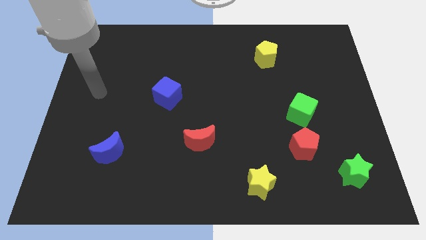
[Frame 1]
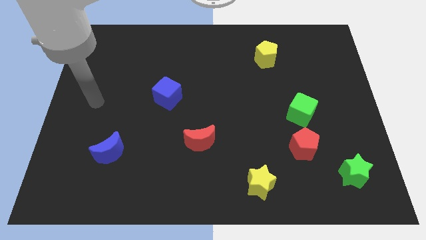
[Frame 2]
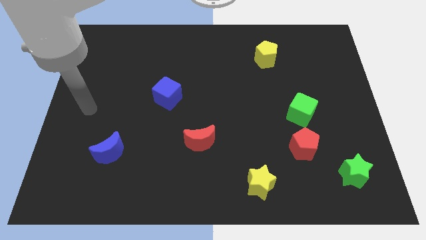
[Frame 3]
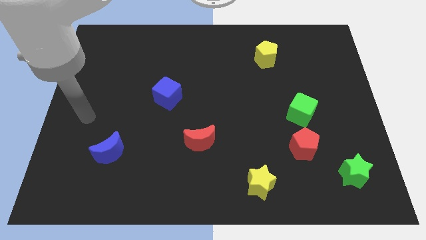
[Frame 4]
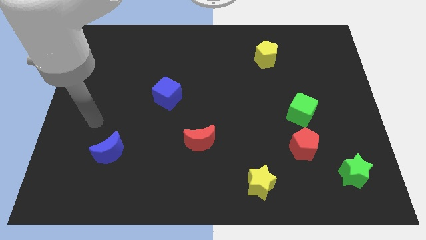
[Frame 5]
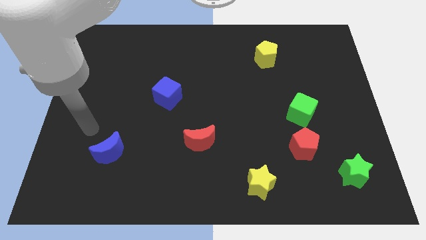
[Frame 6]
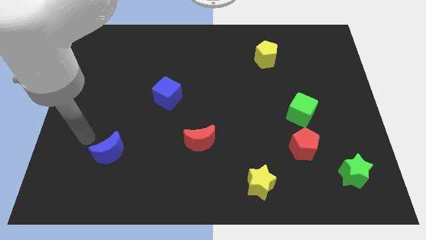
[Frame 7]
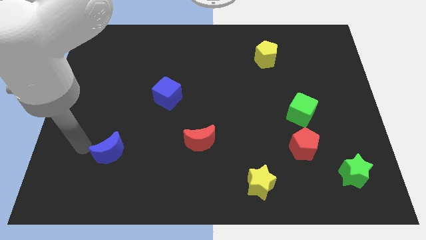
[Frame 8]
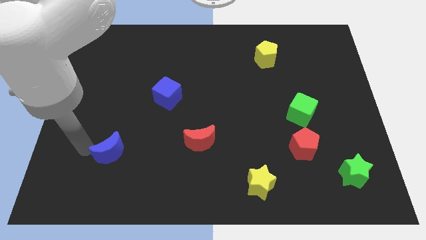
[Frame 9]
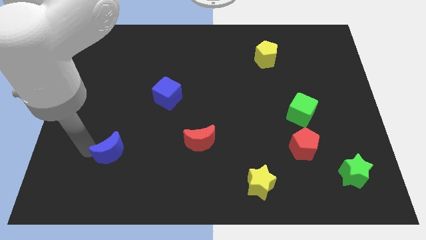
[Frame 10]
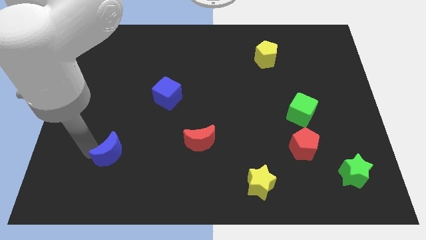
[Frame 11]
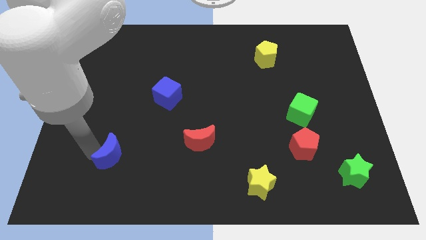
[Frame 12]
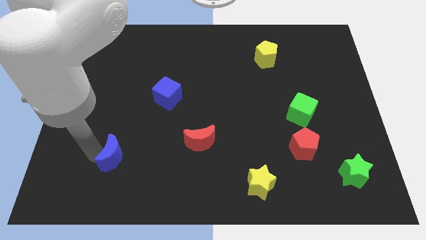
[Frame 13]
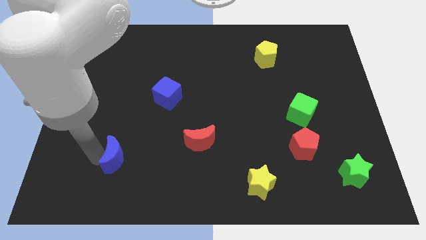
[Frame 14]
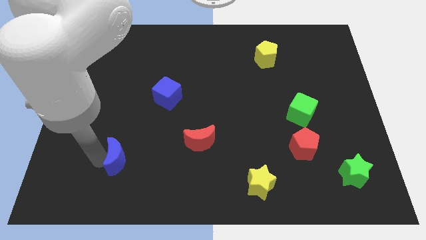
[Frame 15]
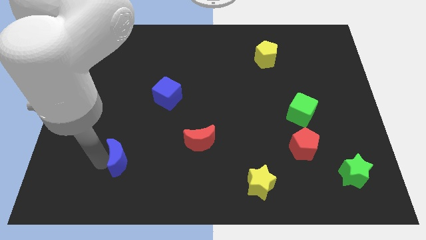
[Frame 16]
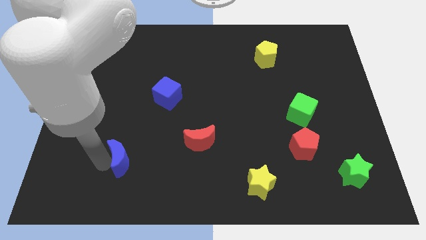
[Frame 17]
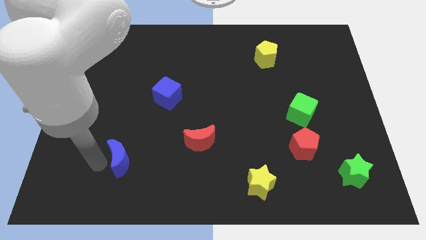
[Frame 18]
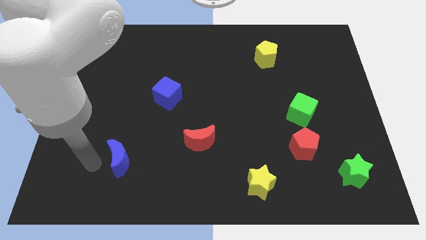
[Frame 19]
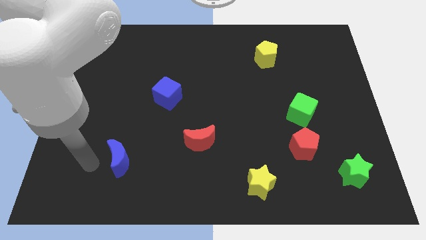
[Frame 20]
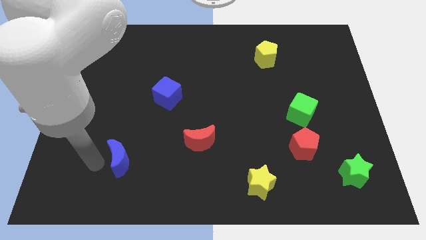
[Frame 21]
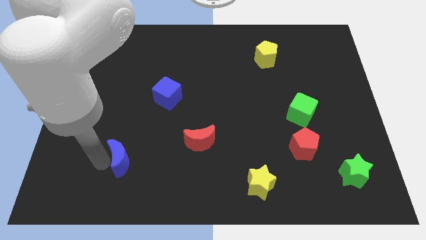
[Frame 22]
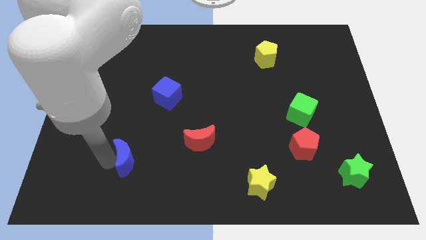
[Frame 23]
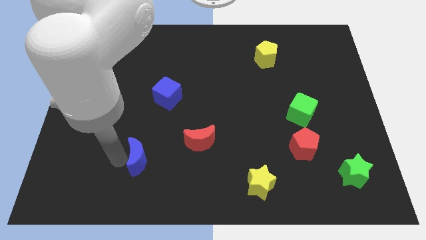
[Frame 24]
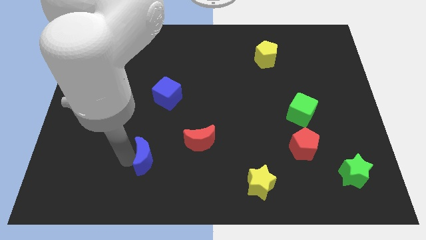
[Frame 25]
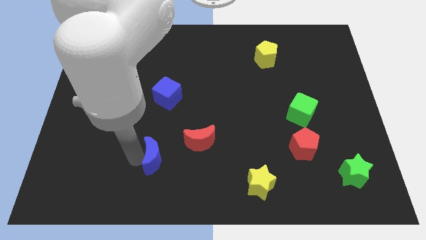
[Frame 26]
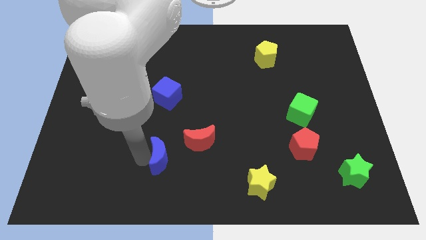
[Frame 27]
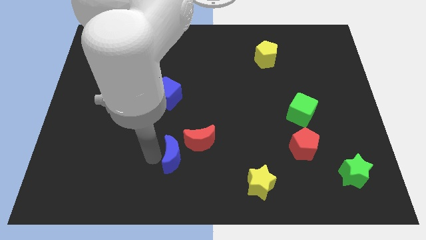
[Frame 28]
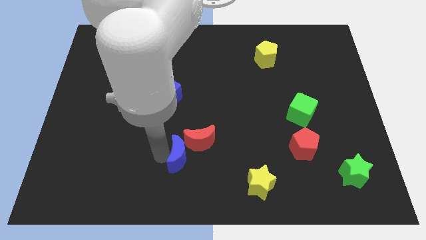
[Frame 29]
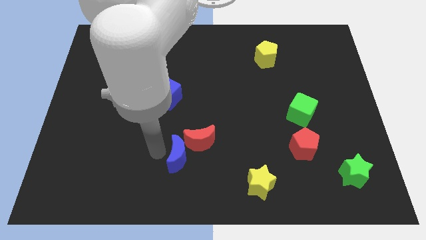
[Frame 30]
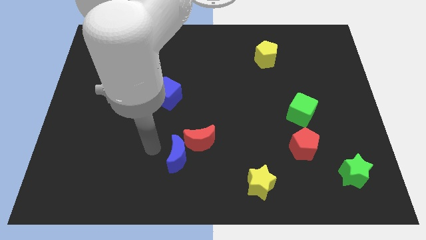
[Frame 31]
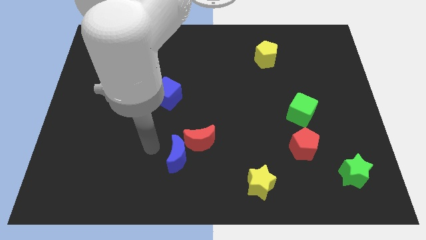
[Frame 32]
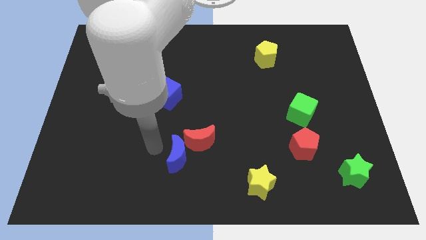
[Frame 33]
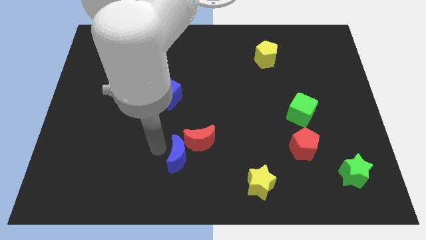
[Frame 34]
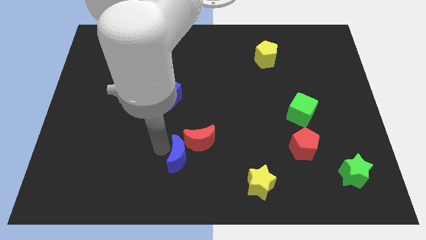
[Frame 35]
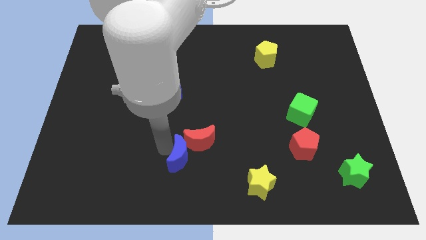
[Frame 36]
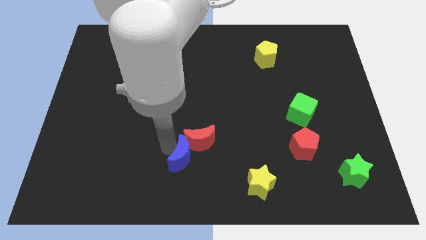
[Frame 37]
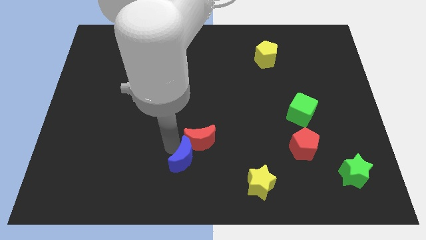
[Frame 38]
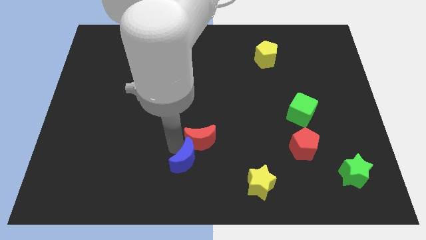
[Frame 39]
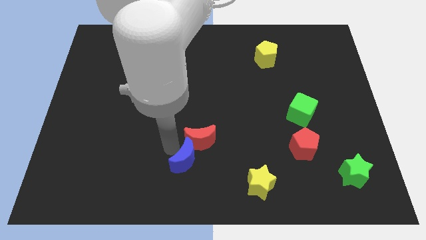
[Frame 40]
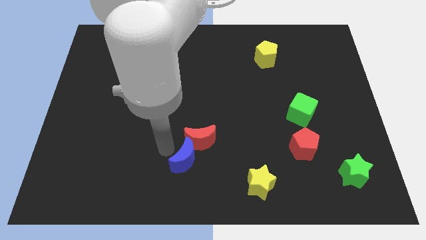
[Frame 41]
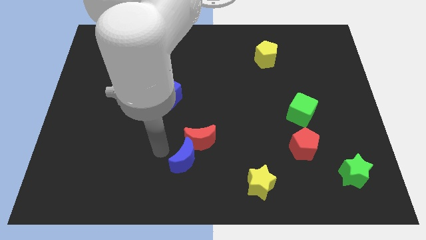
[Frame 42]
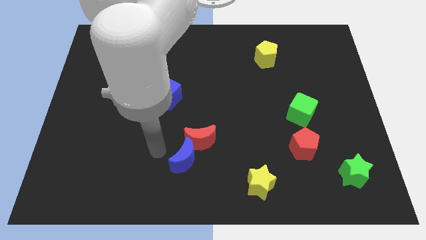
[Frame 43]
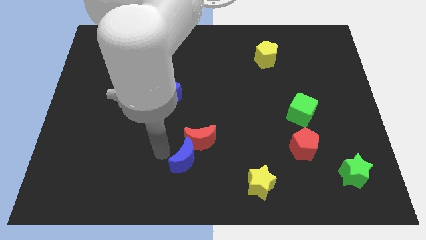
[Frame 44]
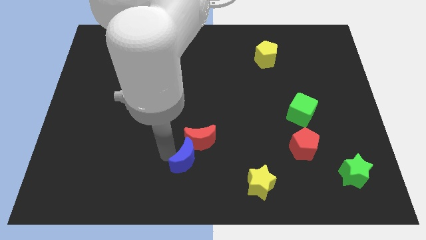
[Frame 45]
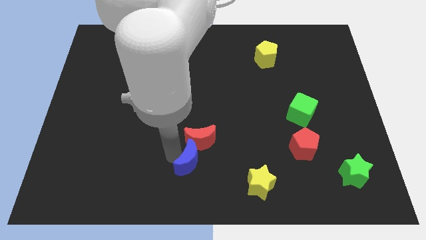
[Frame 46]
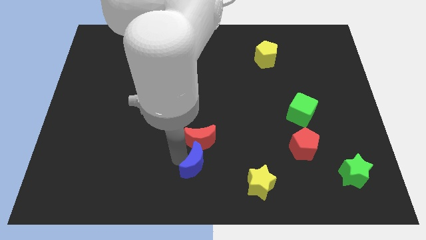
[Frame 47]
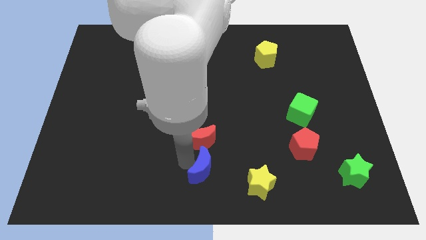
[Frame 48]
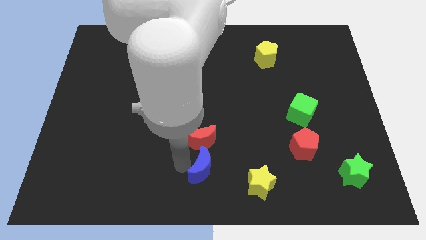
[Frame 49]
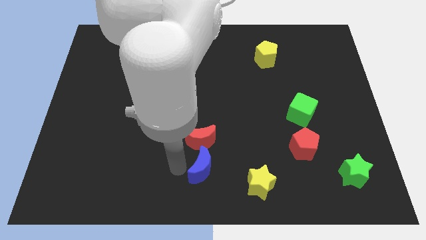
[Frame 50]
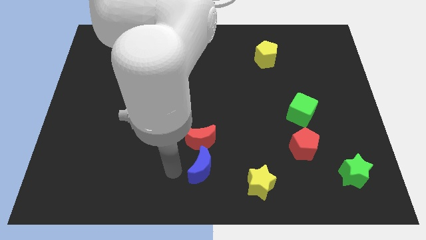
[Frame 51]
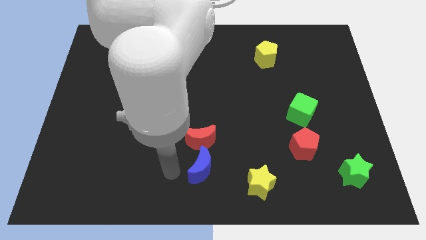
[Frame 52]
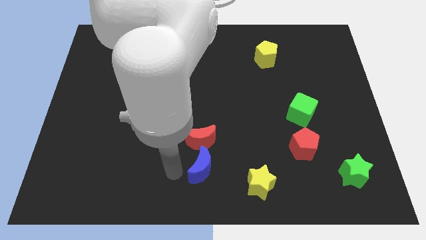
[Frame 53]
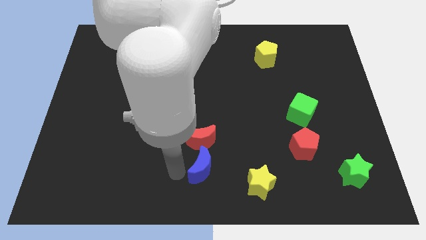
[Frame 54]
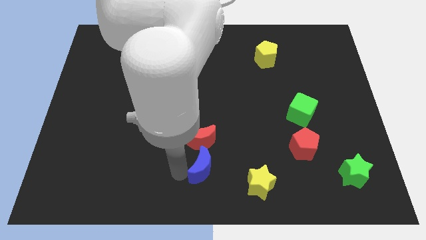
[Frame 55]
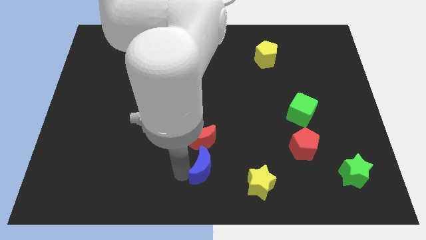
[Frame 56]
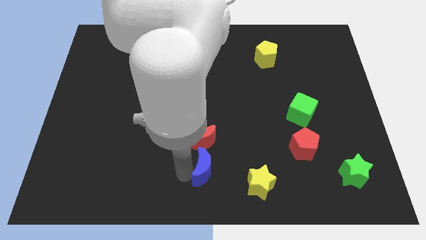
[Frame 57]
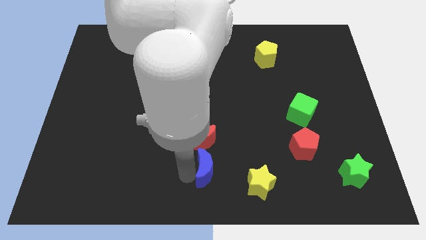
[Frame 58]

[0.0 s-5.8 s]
slide the blue moon right

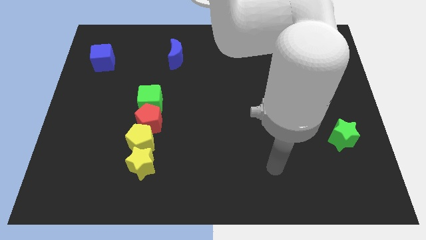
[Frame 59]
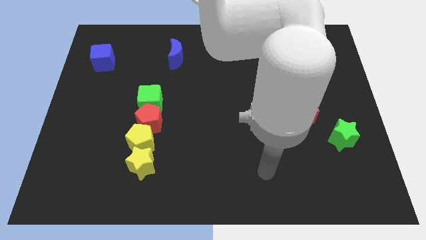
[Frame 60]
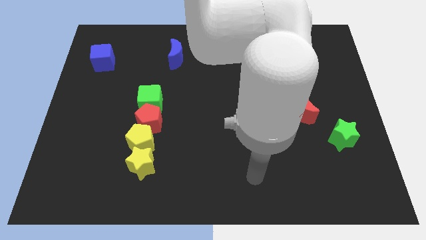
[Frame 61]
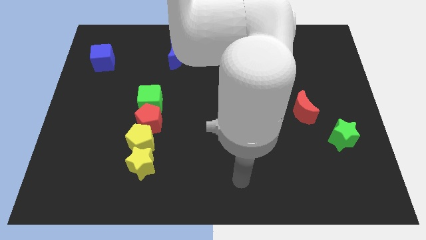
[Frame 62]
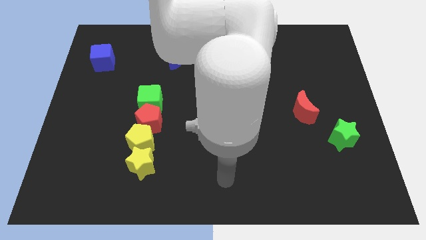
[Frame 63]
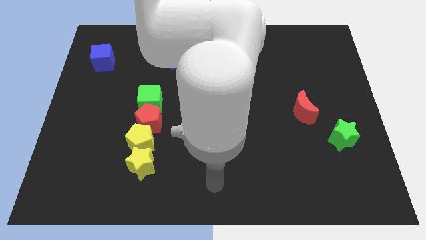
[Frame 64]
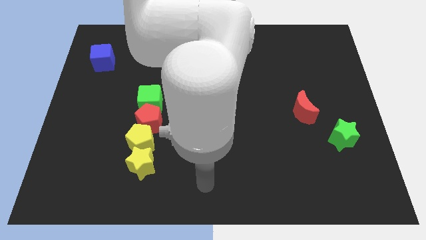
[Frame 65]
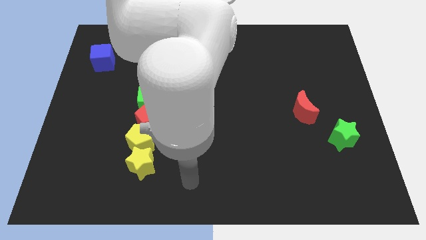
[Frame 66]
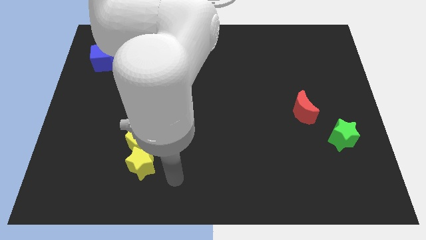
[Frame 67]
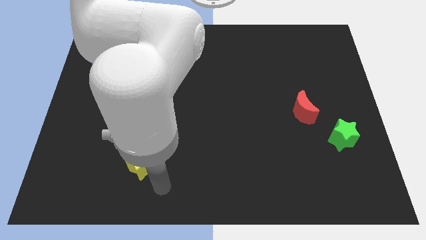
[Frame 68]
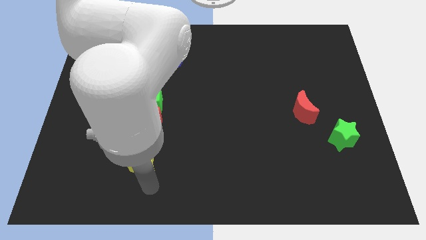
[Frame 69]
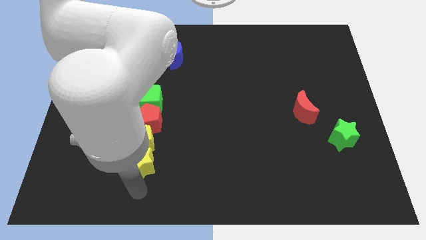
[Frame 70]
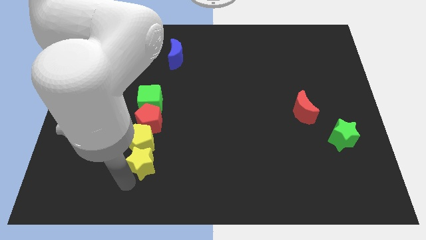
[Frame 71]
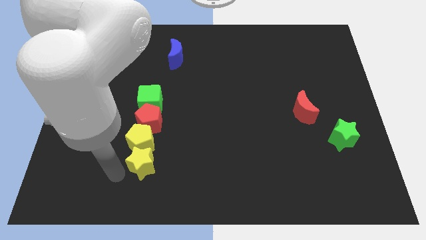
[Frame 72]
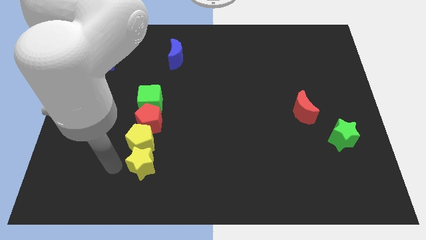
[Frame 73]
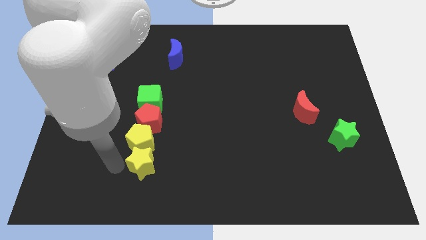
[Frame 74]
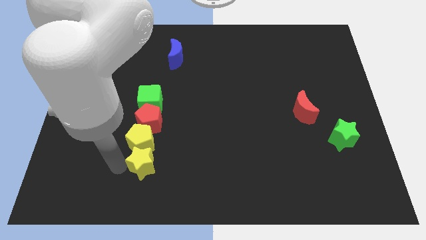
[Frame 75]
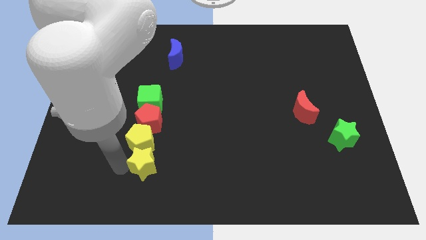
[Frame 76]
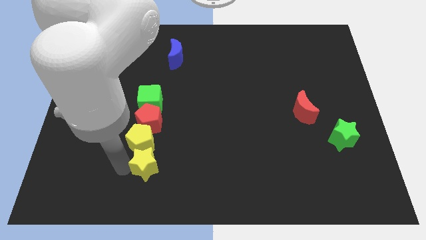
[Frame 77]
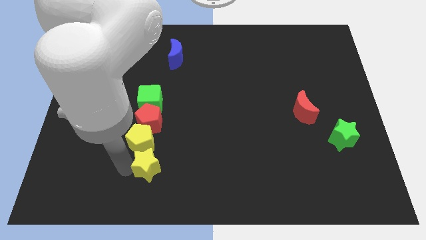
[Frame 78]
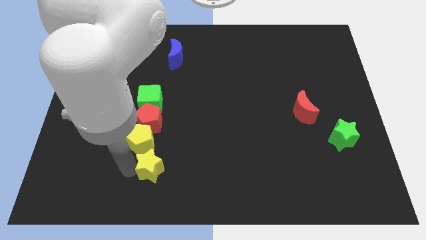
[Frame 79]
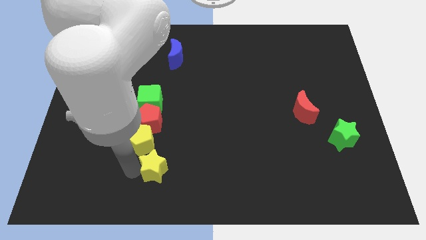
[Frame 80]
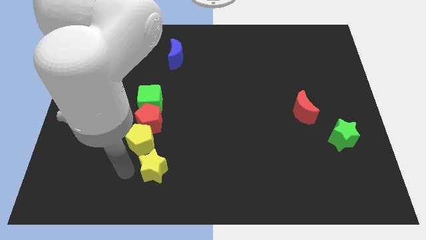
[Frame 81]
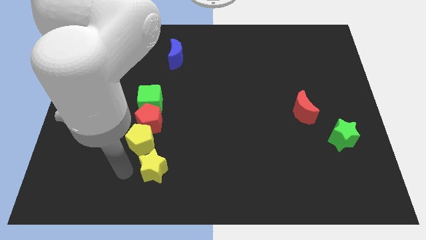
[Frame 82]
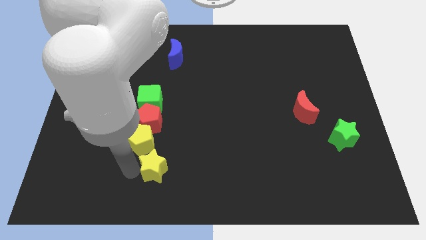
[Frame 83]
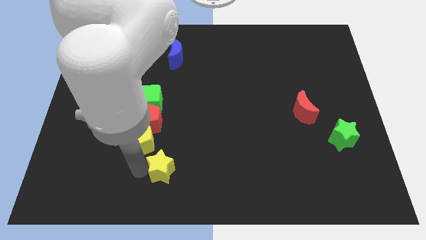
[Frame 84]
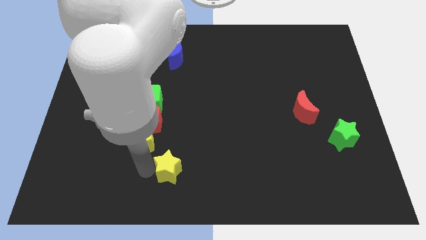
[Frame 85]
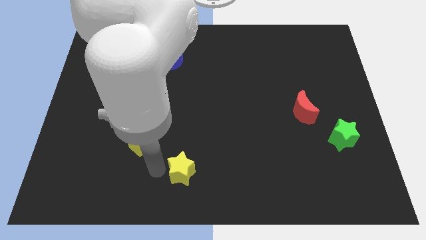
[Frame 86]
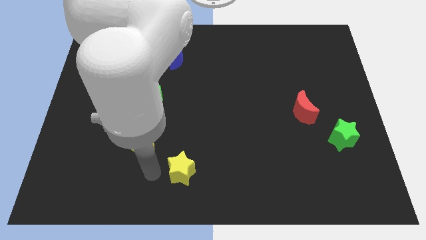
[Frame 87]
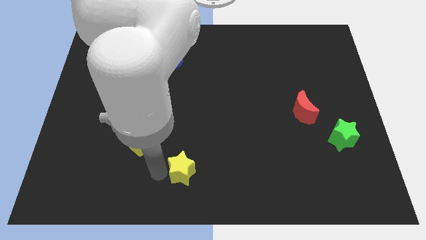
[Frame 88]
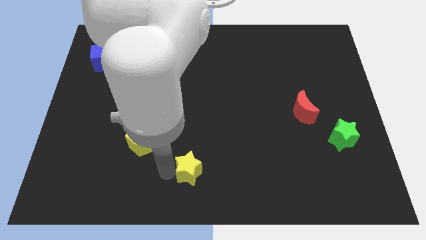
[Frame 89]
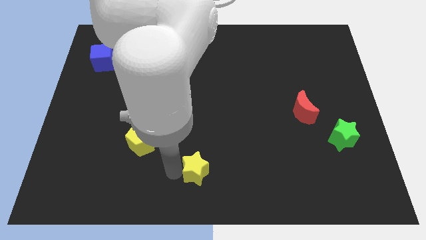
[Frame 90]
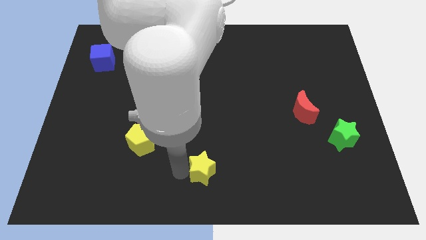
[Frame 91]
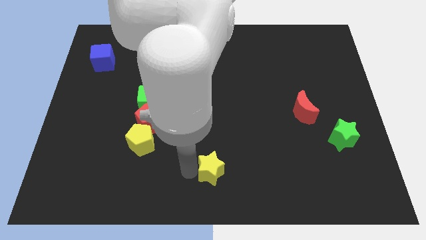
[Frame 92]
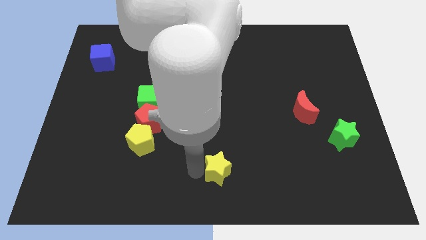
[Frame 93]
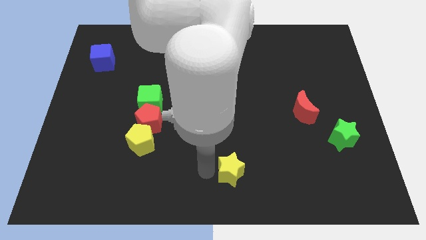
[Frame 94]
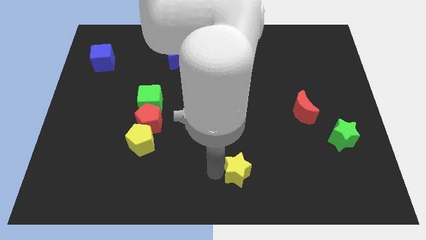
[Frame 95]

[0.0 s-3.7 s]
slide the yellow star right
